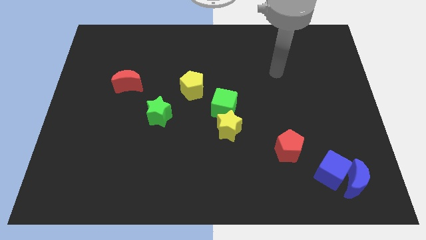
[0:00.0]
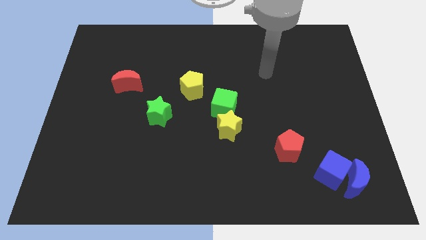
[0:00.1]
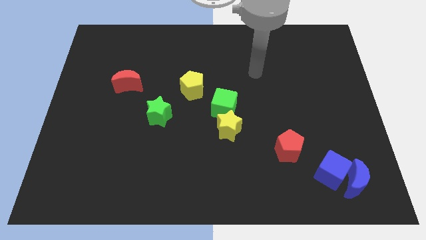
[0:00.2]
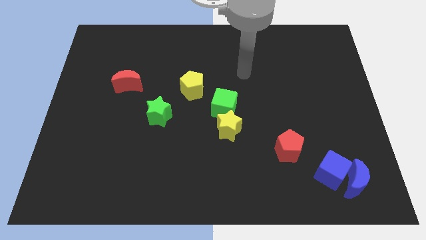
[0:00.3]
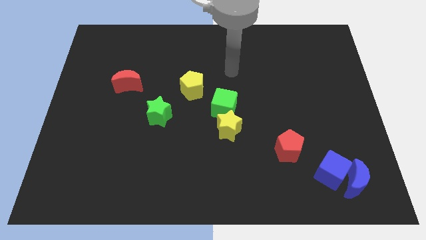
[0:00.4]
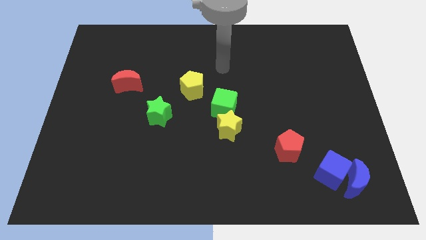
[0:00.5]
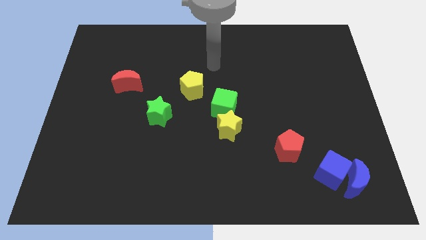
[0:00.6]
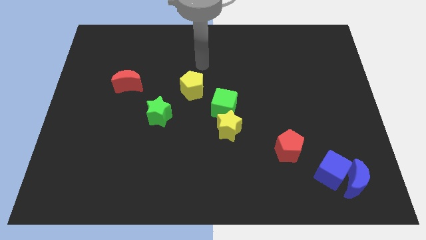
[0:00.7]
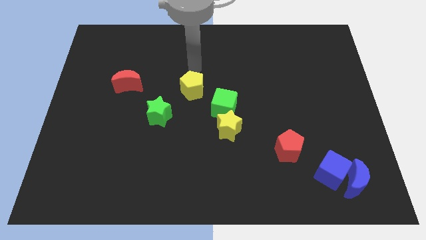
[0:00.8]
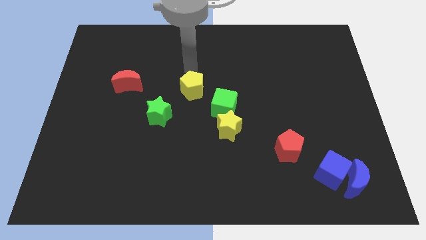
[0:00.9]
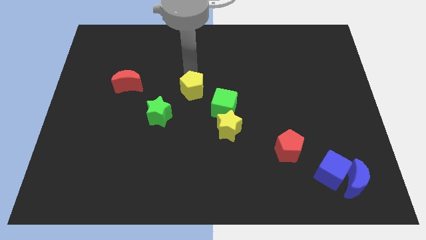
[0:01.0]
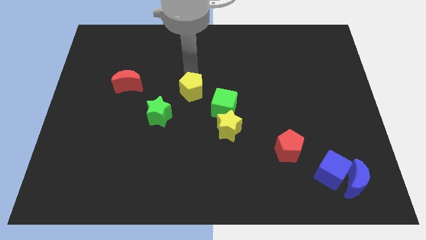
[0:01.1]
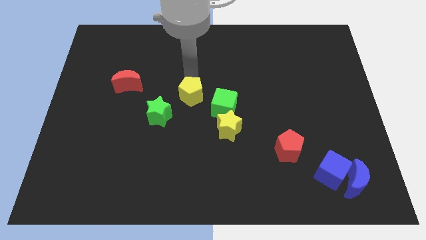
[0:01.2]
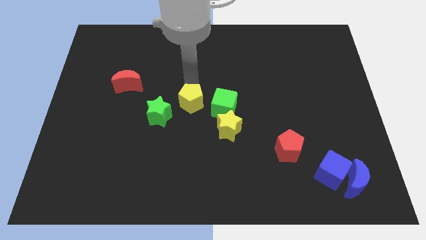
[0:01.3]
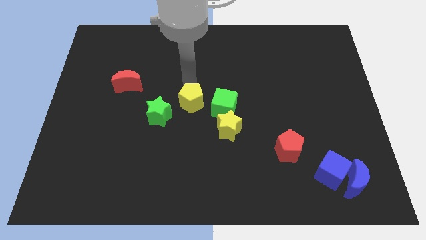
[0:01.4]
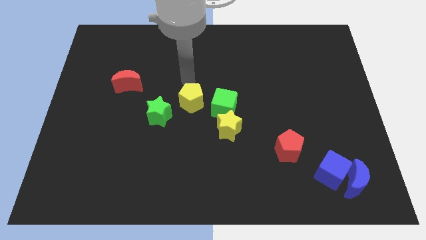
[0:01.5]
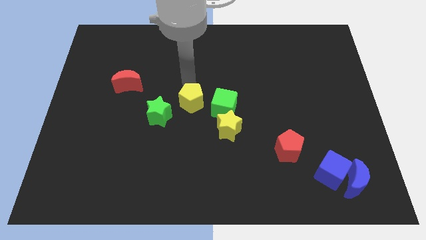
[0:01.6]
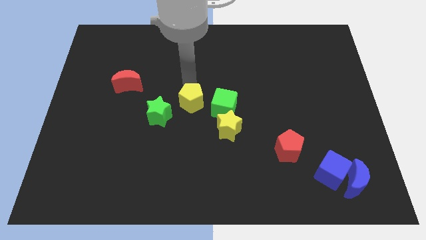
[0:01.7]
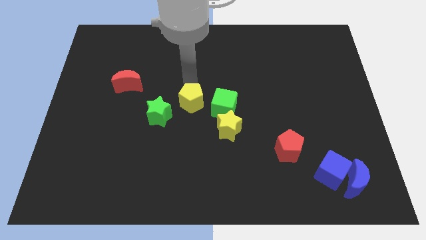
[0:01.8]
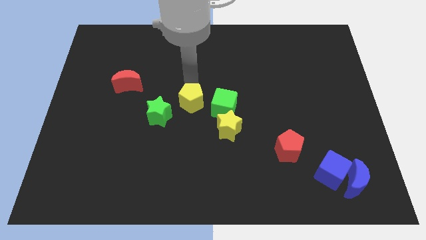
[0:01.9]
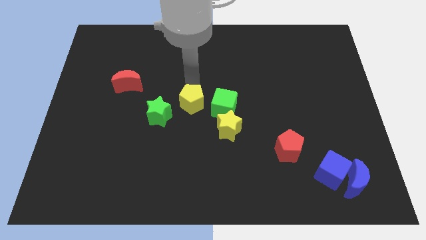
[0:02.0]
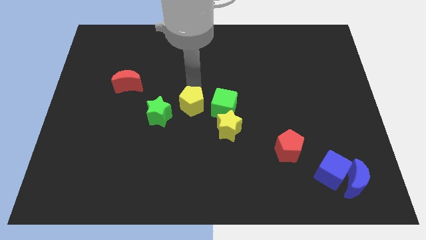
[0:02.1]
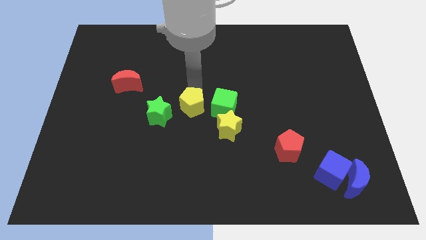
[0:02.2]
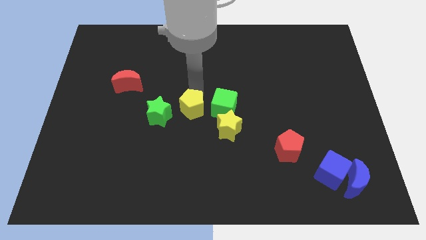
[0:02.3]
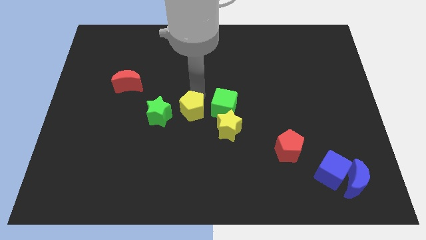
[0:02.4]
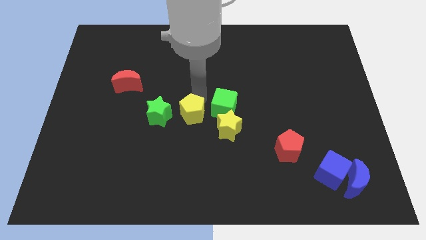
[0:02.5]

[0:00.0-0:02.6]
slightly push the yellow pentagon down

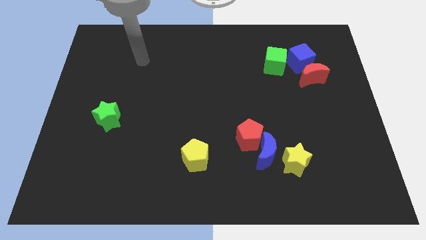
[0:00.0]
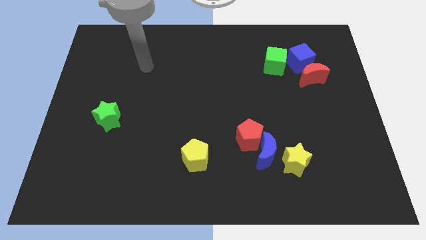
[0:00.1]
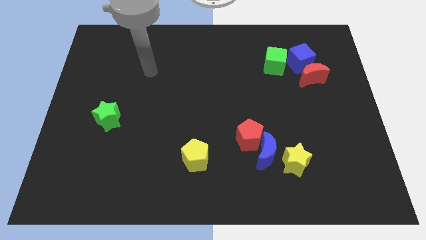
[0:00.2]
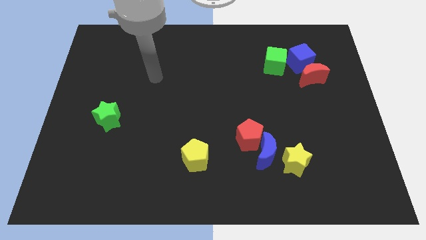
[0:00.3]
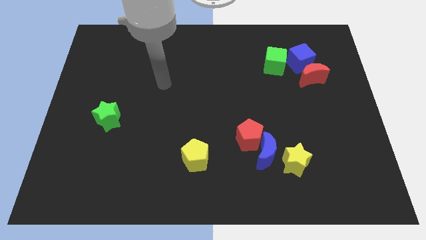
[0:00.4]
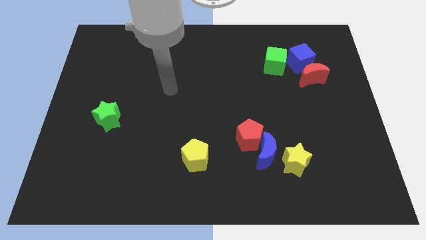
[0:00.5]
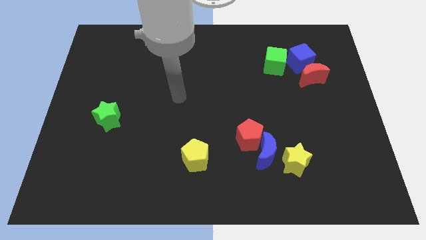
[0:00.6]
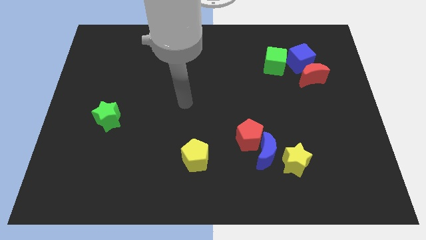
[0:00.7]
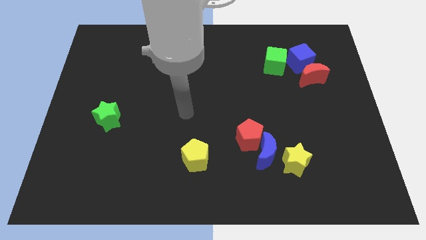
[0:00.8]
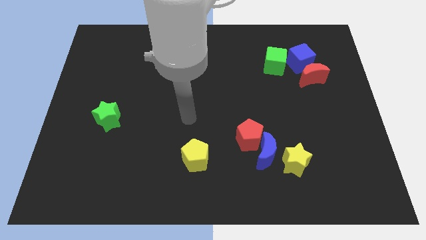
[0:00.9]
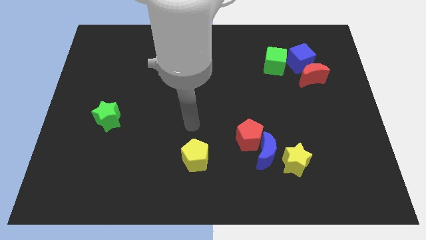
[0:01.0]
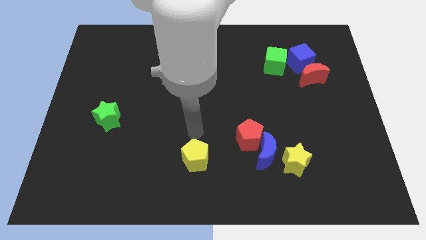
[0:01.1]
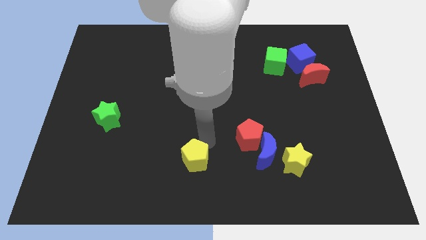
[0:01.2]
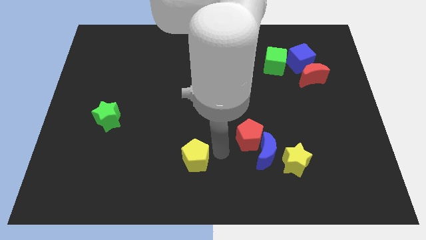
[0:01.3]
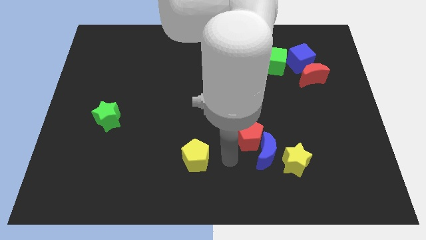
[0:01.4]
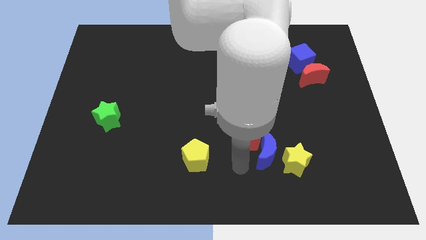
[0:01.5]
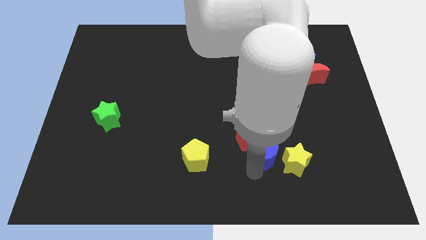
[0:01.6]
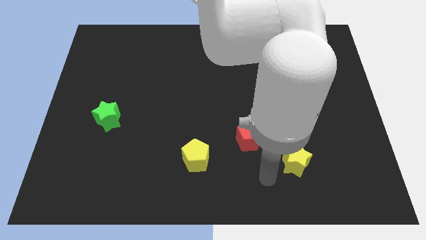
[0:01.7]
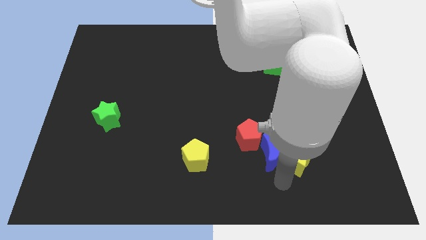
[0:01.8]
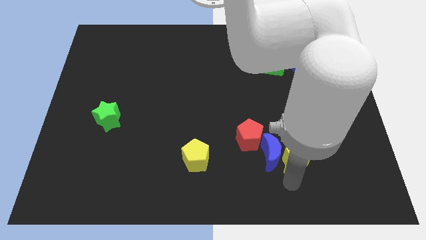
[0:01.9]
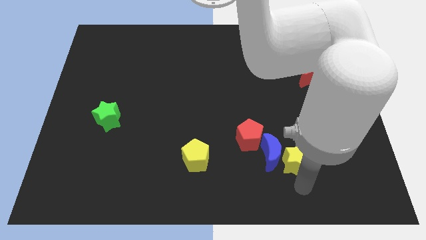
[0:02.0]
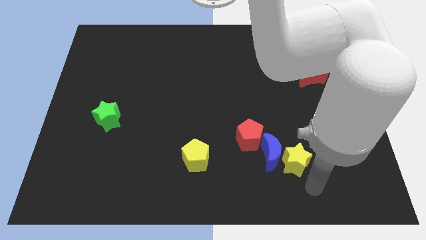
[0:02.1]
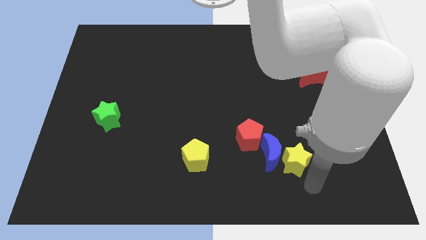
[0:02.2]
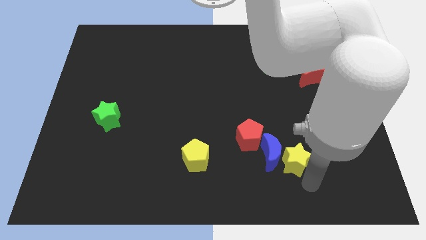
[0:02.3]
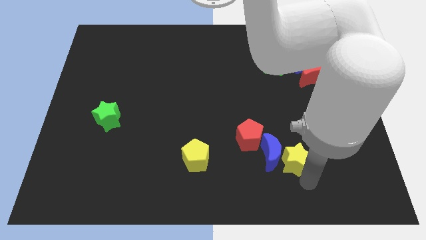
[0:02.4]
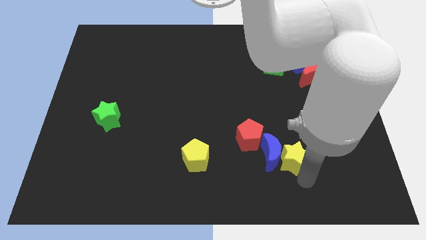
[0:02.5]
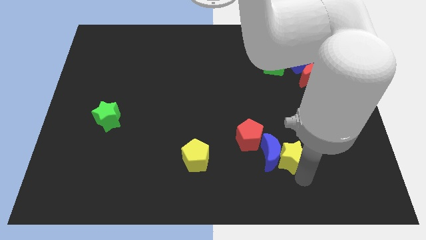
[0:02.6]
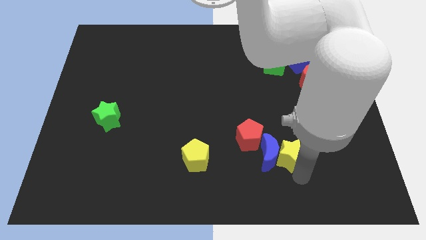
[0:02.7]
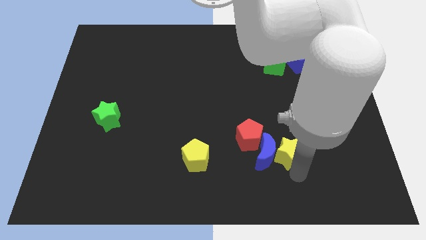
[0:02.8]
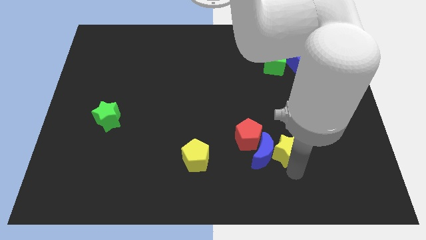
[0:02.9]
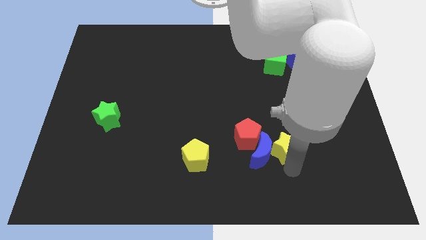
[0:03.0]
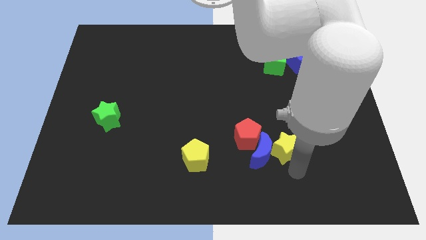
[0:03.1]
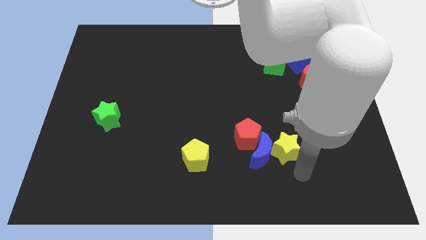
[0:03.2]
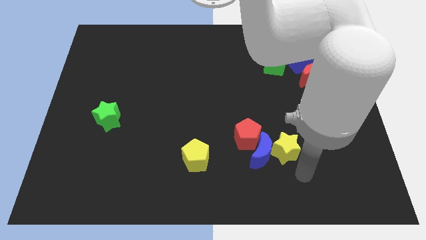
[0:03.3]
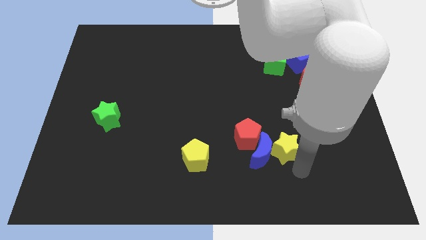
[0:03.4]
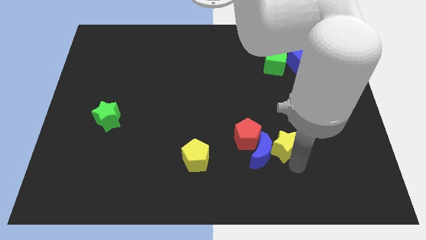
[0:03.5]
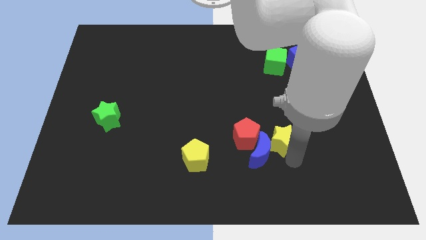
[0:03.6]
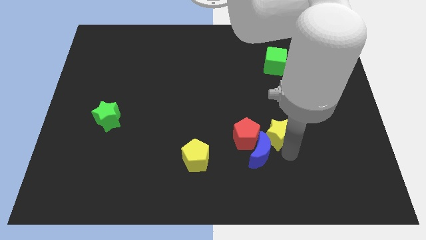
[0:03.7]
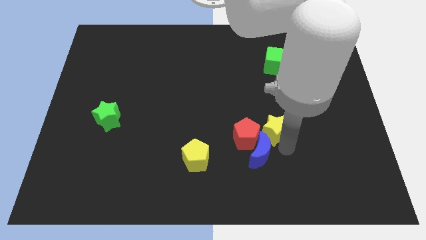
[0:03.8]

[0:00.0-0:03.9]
slightly push the yellow star upwards and then to the left

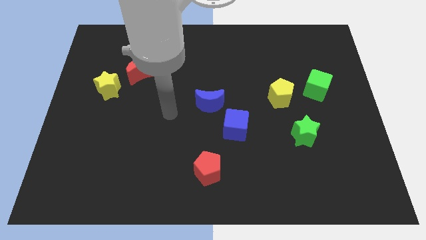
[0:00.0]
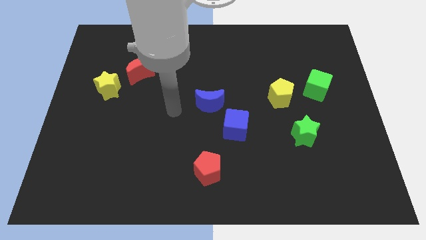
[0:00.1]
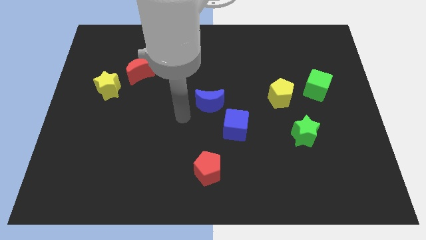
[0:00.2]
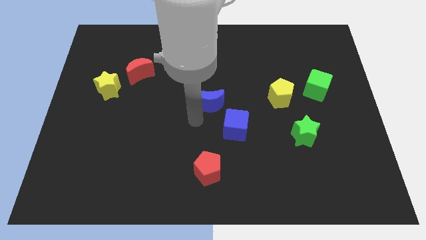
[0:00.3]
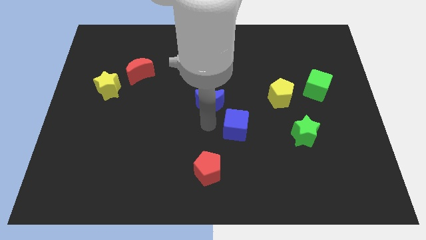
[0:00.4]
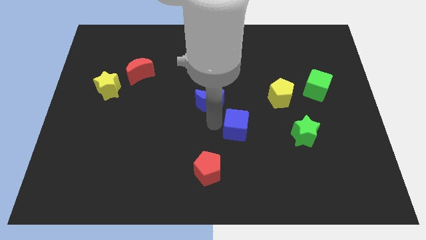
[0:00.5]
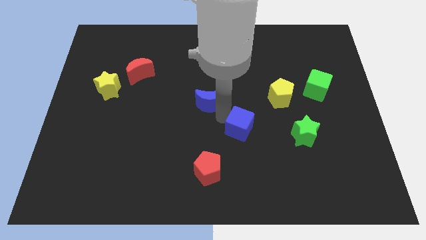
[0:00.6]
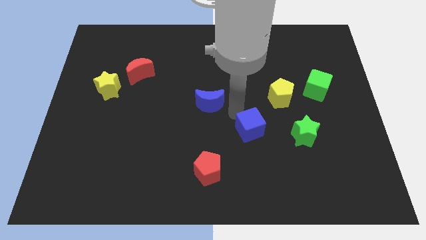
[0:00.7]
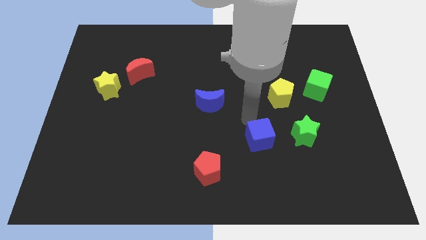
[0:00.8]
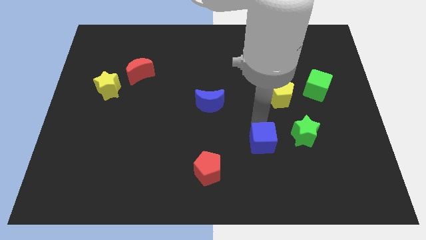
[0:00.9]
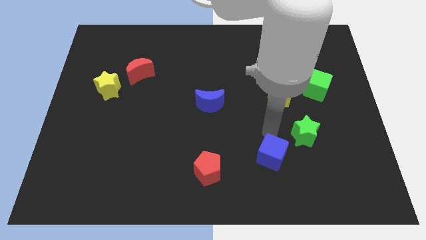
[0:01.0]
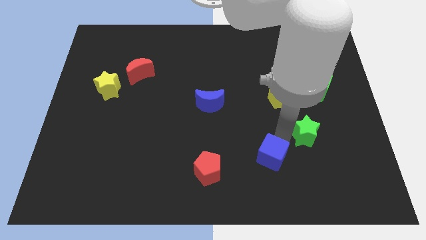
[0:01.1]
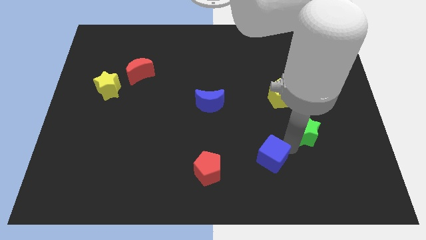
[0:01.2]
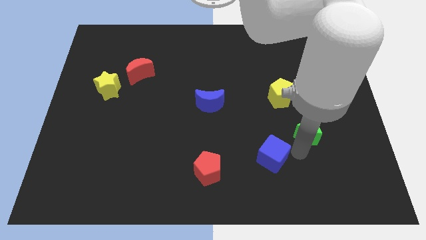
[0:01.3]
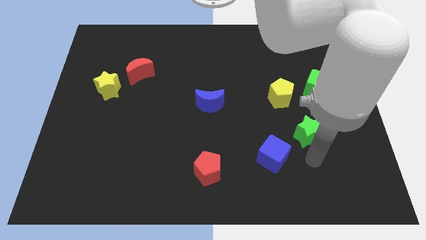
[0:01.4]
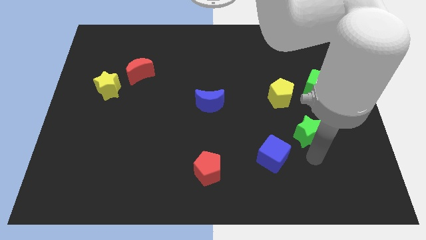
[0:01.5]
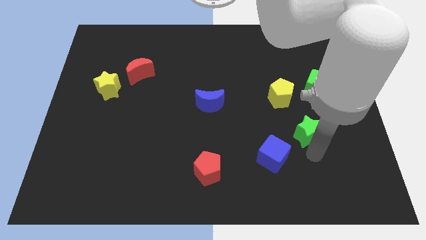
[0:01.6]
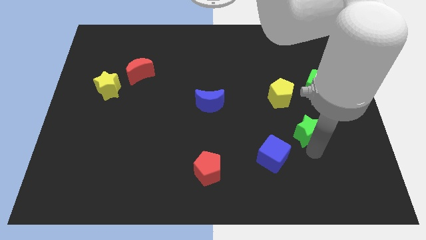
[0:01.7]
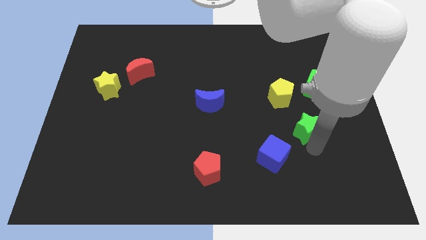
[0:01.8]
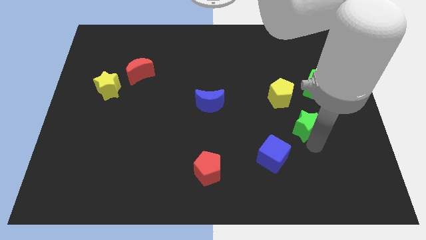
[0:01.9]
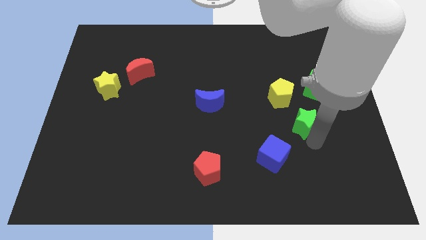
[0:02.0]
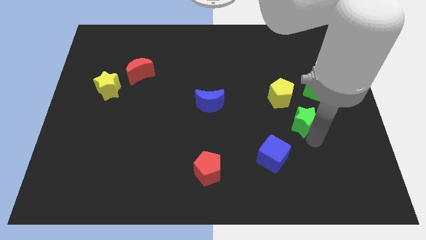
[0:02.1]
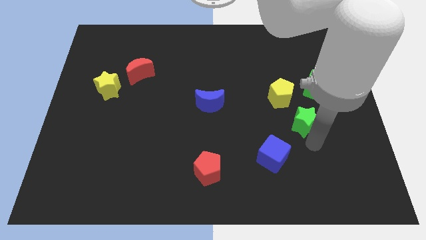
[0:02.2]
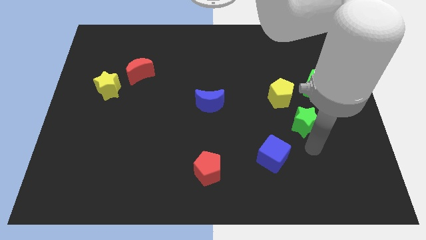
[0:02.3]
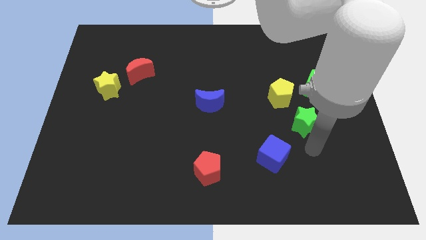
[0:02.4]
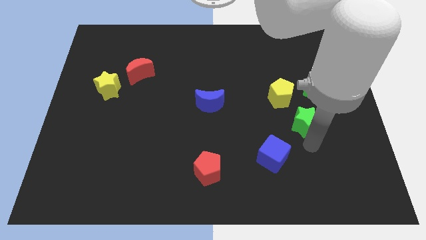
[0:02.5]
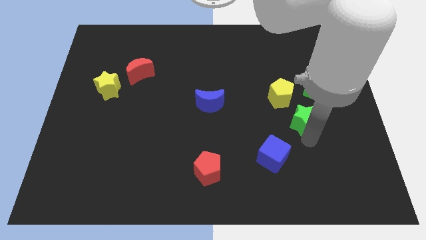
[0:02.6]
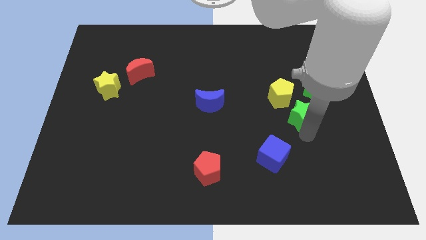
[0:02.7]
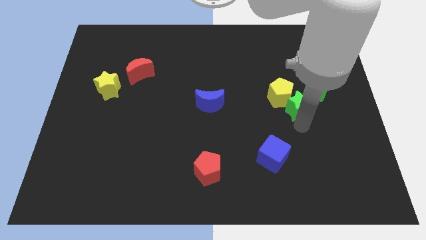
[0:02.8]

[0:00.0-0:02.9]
slightly move the green star up
